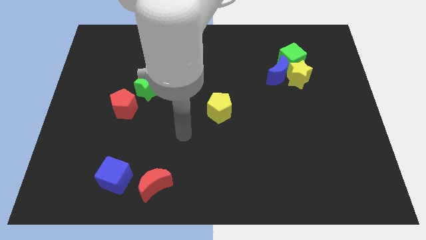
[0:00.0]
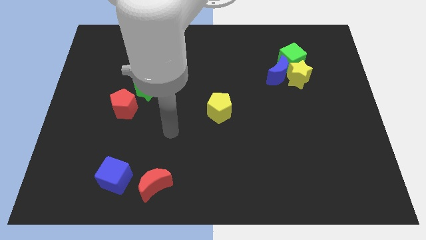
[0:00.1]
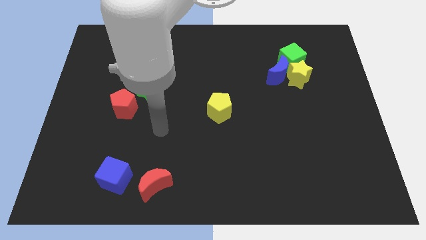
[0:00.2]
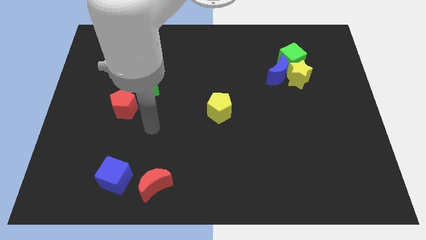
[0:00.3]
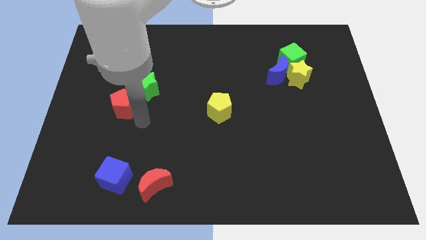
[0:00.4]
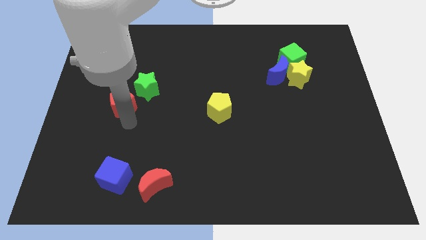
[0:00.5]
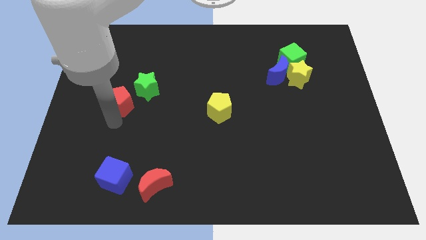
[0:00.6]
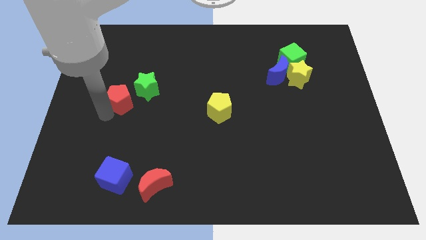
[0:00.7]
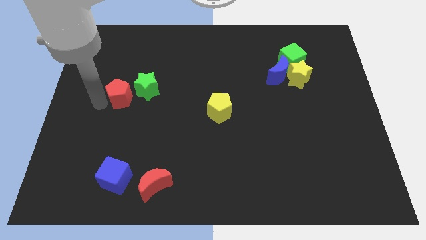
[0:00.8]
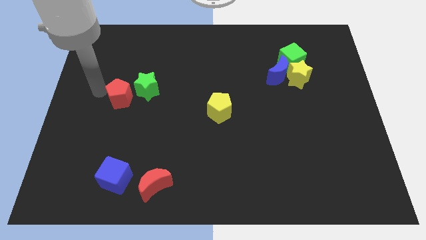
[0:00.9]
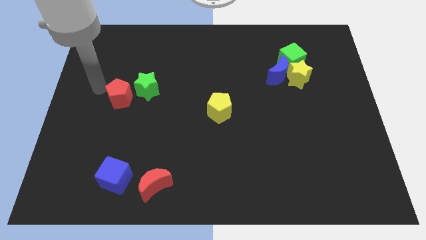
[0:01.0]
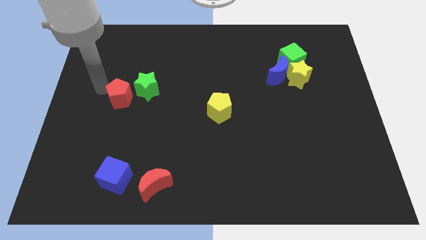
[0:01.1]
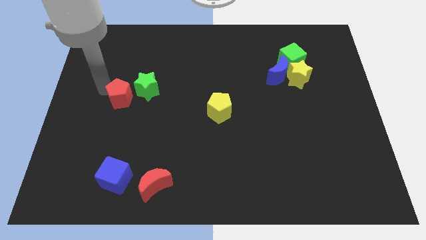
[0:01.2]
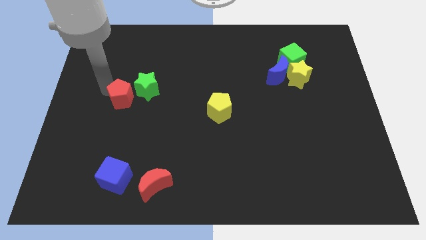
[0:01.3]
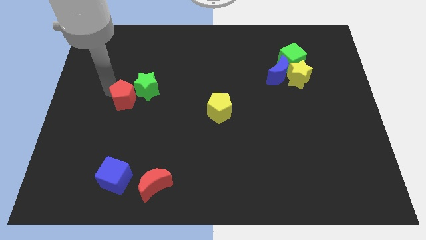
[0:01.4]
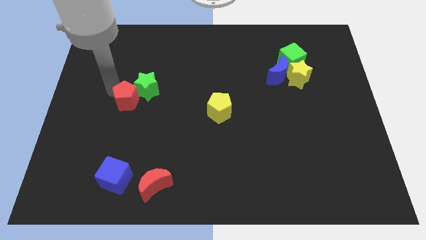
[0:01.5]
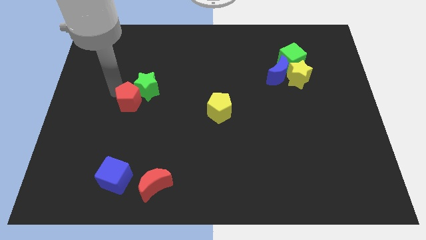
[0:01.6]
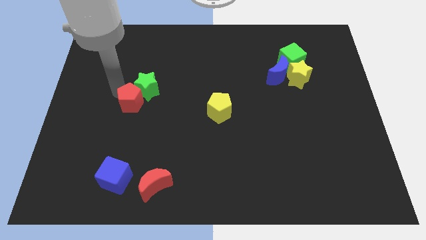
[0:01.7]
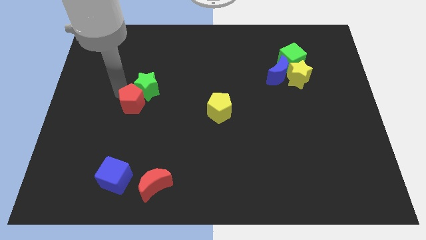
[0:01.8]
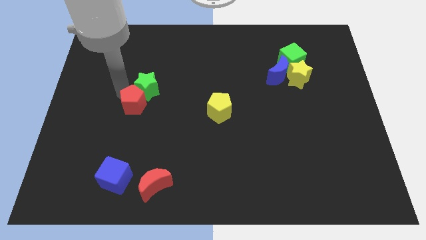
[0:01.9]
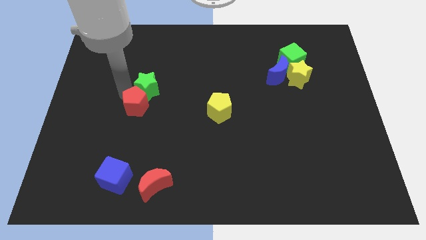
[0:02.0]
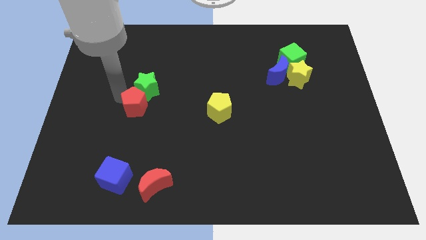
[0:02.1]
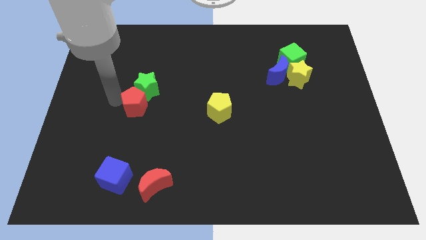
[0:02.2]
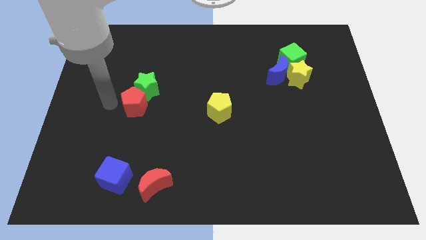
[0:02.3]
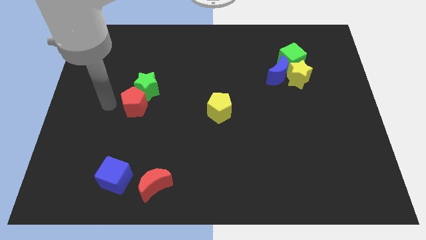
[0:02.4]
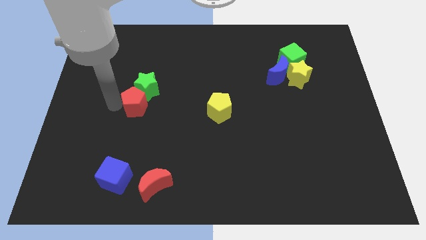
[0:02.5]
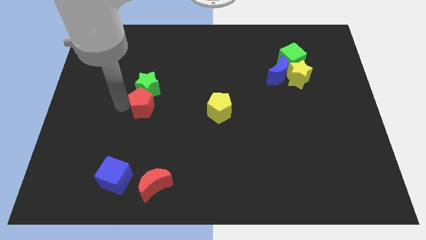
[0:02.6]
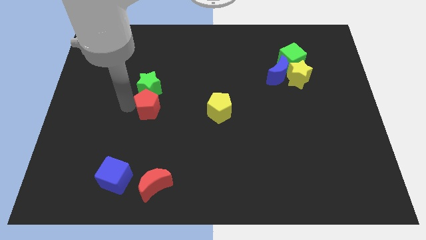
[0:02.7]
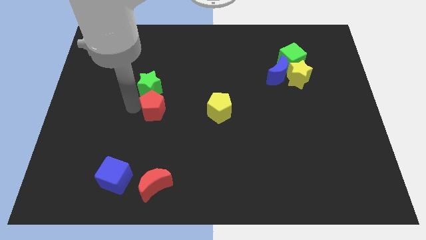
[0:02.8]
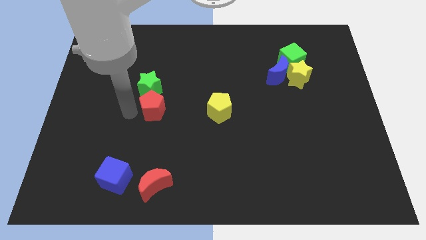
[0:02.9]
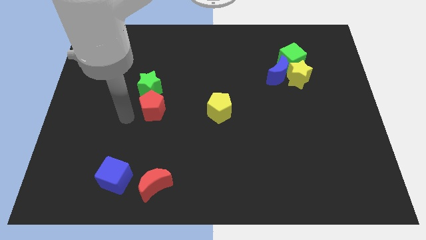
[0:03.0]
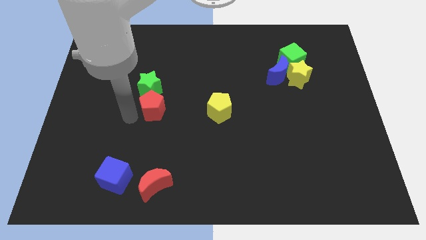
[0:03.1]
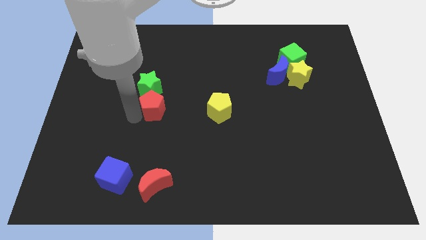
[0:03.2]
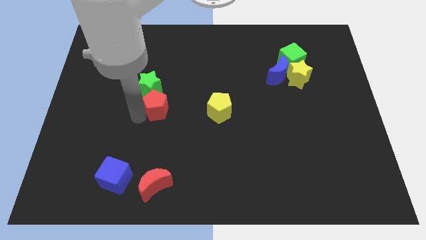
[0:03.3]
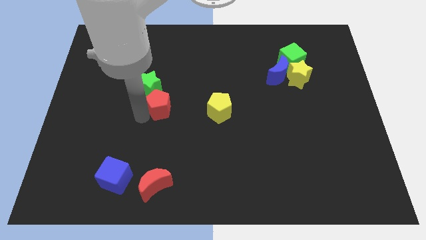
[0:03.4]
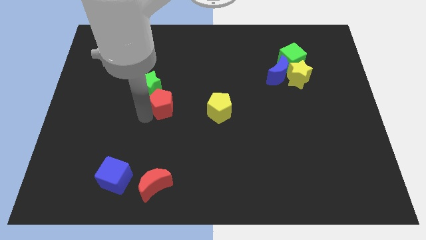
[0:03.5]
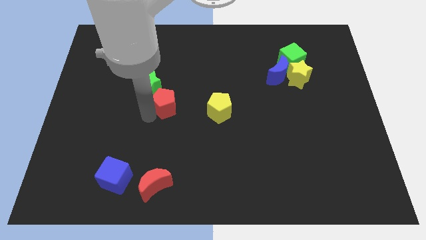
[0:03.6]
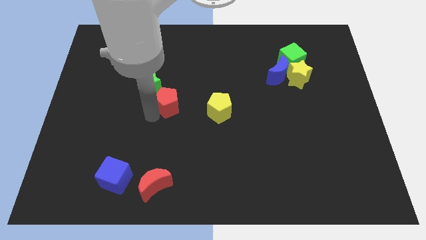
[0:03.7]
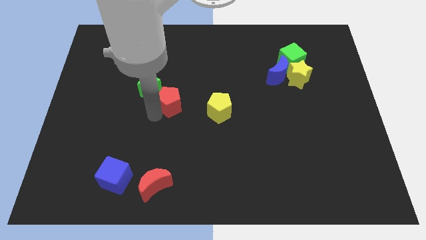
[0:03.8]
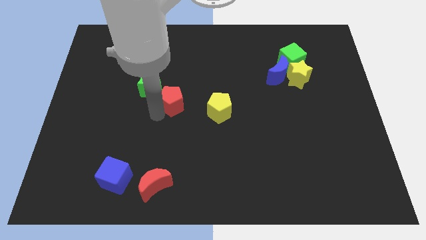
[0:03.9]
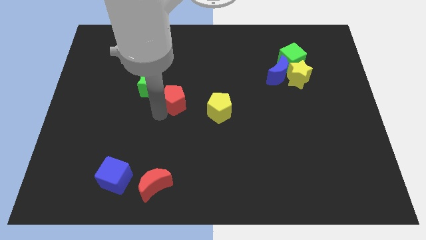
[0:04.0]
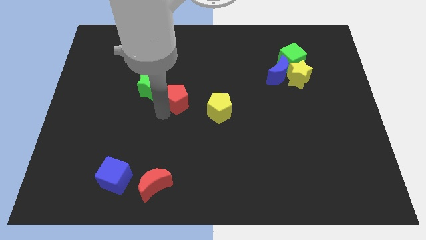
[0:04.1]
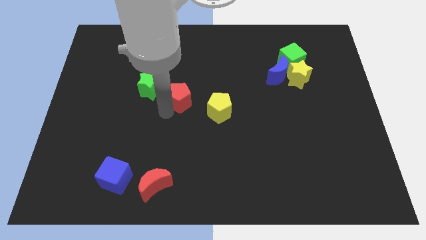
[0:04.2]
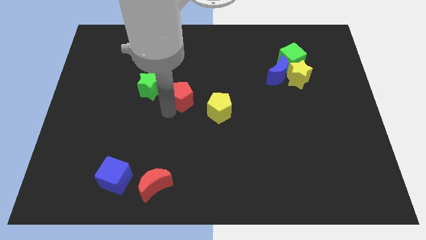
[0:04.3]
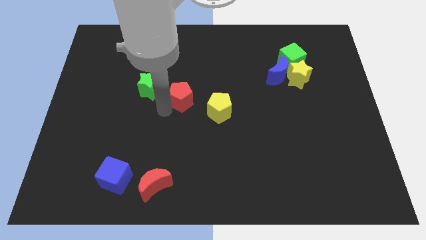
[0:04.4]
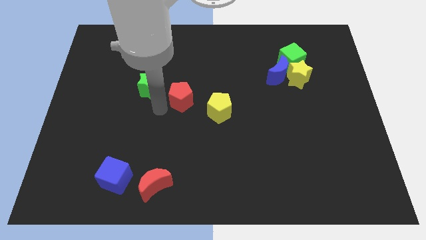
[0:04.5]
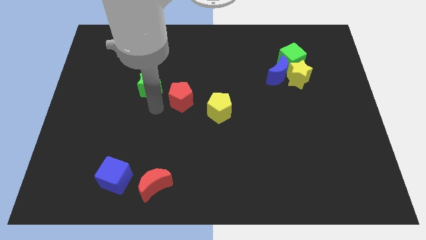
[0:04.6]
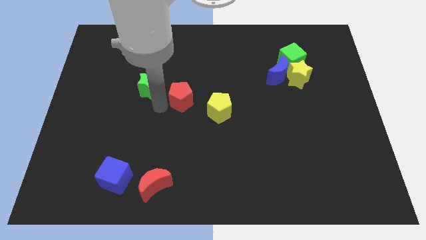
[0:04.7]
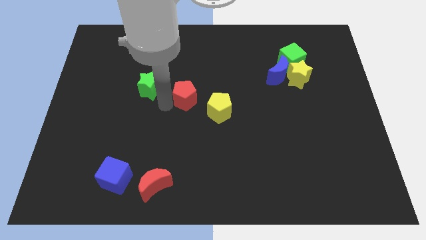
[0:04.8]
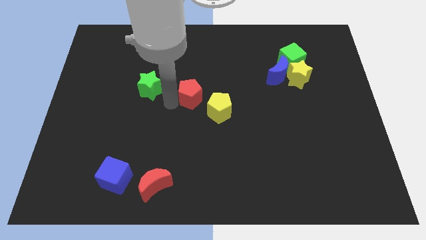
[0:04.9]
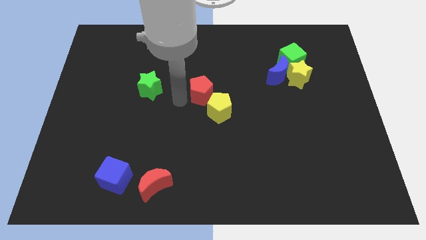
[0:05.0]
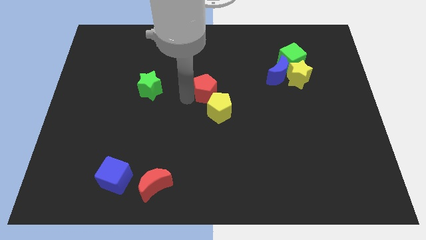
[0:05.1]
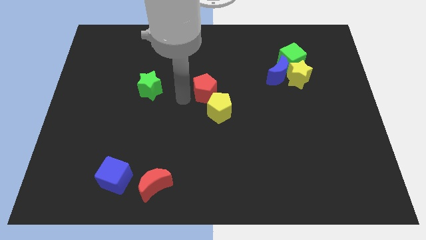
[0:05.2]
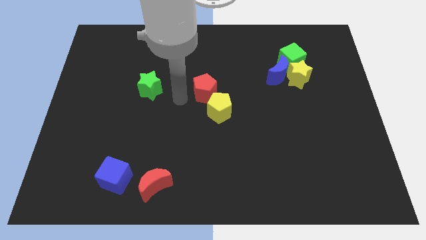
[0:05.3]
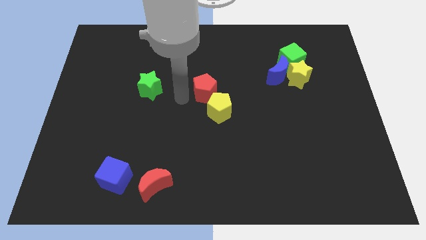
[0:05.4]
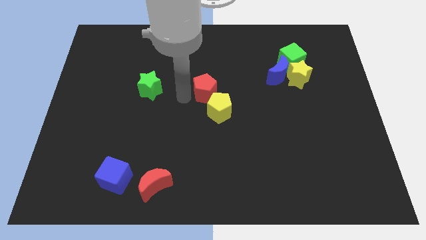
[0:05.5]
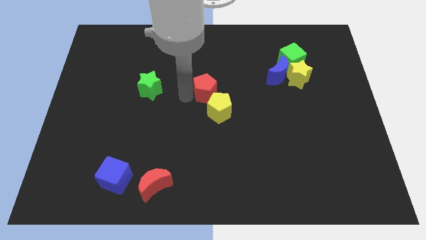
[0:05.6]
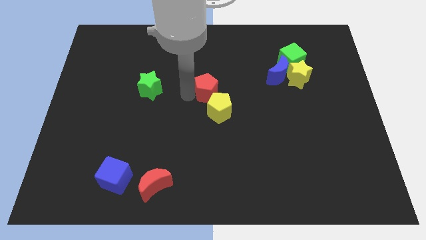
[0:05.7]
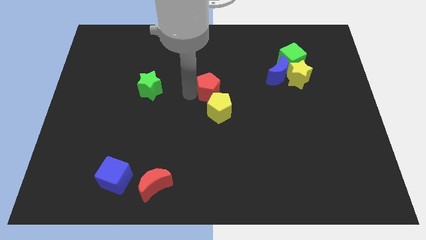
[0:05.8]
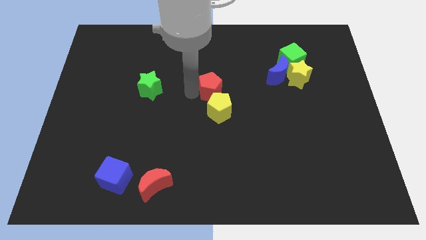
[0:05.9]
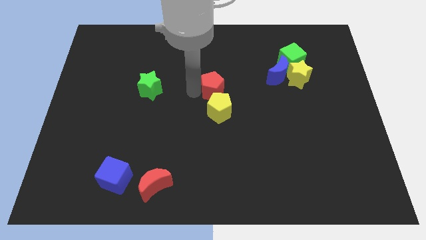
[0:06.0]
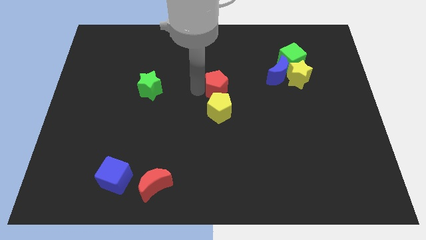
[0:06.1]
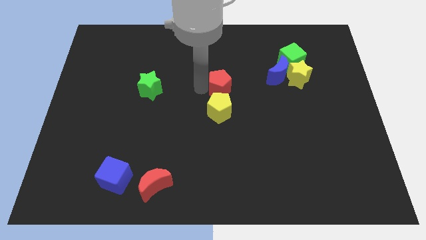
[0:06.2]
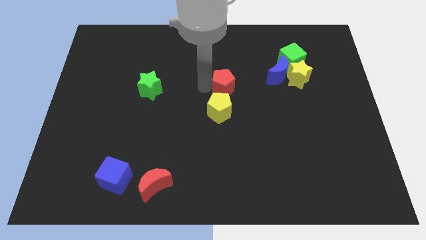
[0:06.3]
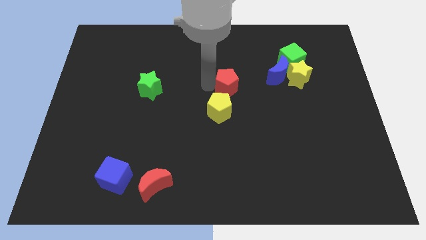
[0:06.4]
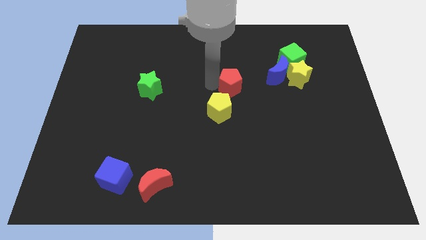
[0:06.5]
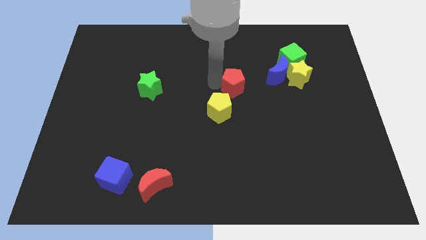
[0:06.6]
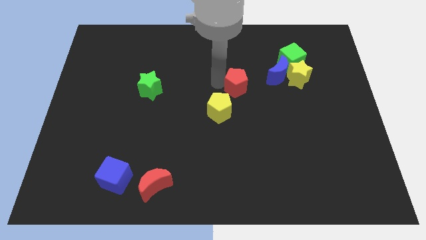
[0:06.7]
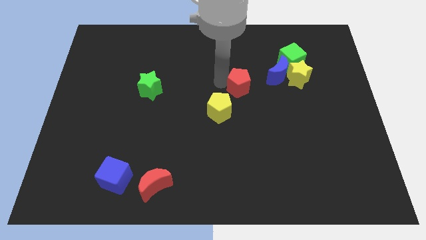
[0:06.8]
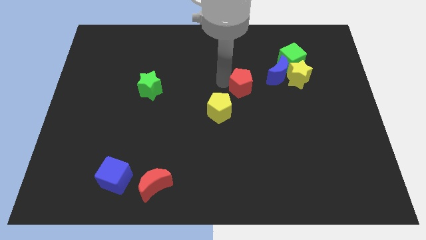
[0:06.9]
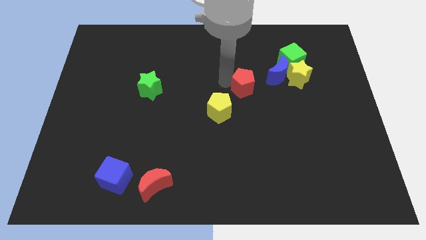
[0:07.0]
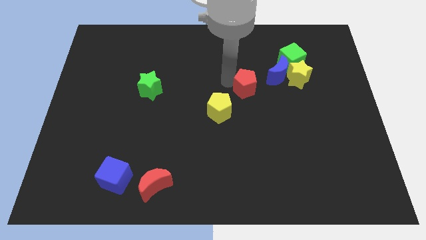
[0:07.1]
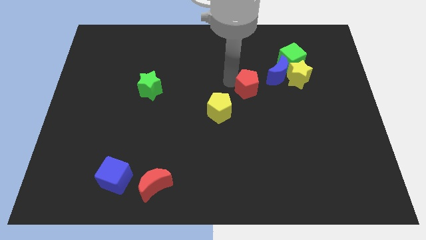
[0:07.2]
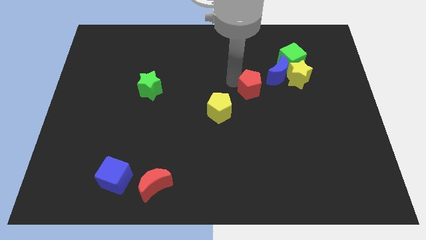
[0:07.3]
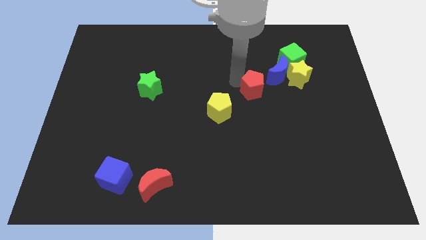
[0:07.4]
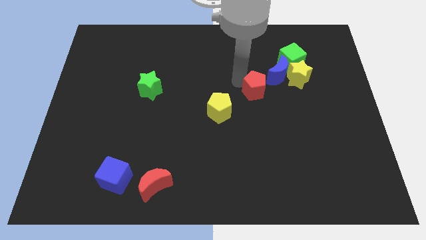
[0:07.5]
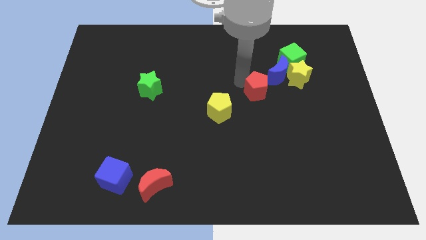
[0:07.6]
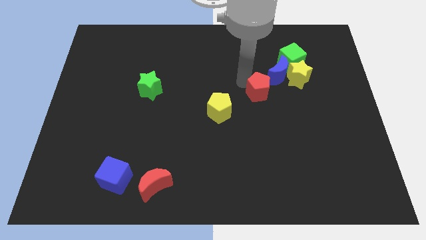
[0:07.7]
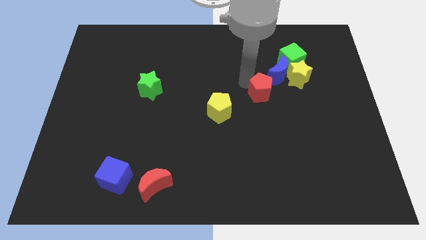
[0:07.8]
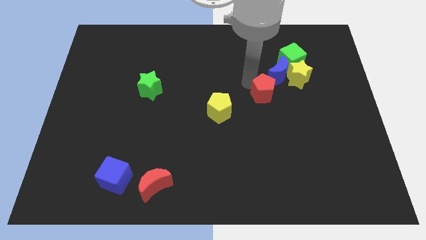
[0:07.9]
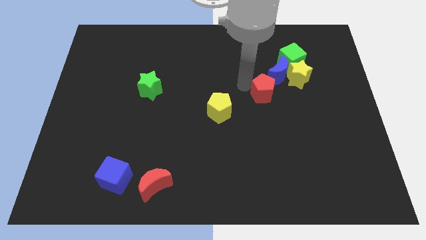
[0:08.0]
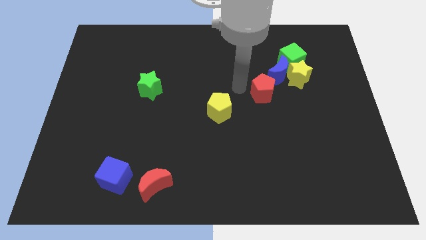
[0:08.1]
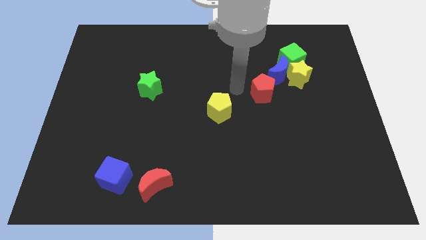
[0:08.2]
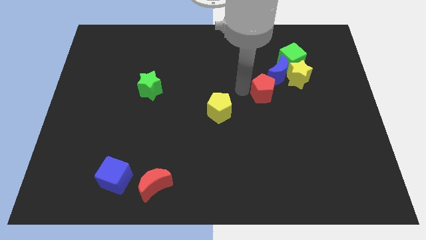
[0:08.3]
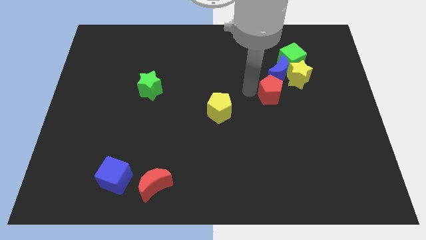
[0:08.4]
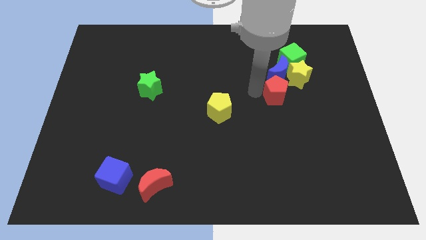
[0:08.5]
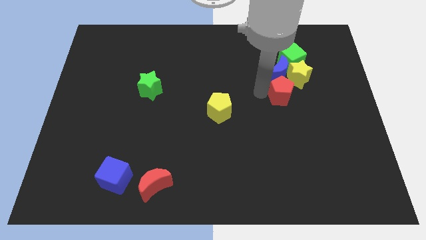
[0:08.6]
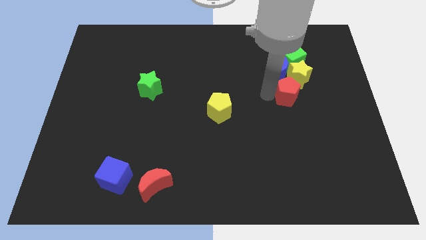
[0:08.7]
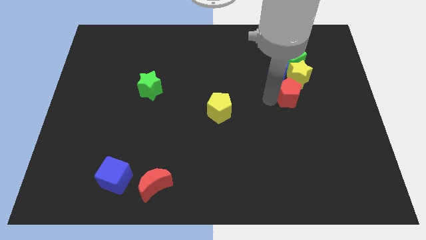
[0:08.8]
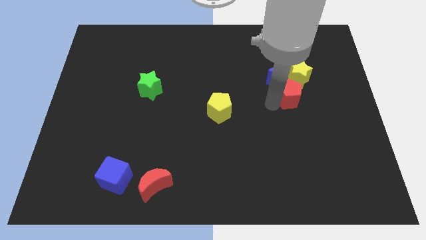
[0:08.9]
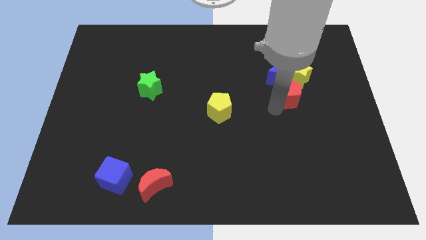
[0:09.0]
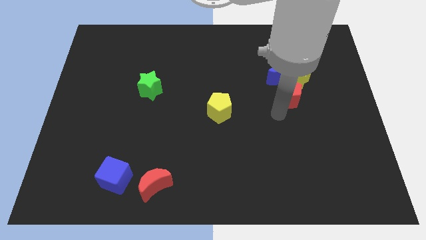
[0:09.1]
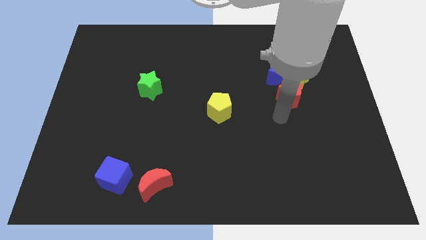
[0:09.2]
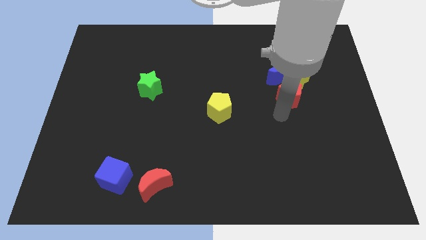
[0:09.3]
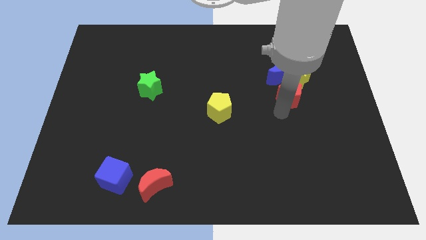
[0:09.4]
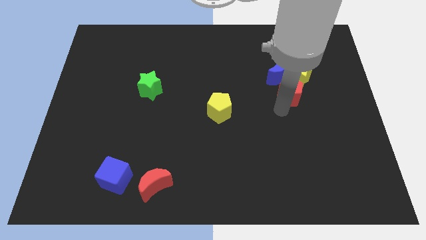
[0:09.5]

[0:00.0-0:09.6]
push the red pentagon next to the yellow star
